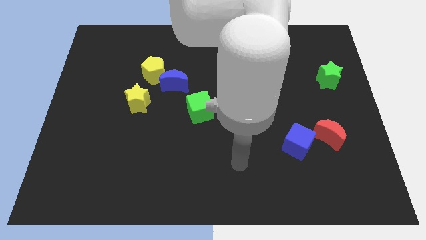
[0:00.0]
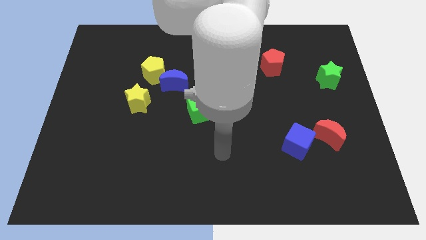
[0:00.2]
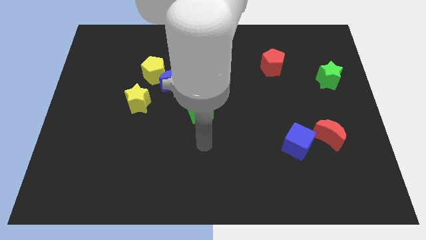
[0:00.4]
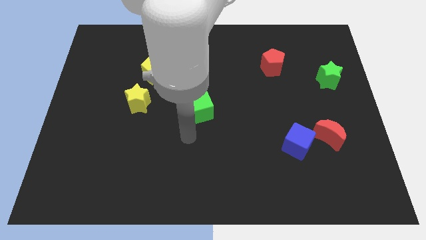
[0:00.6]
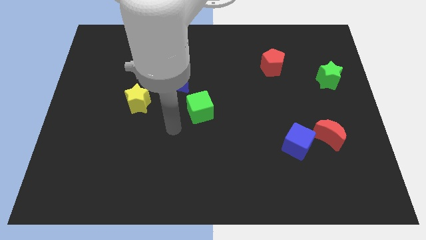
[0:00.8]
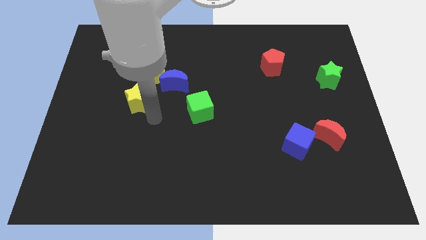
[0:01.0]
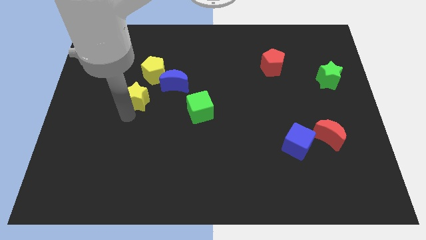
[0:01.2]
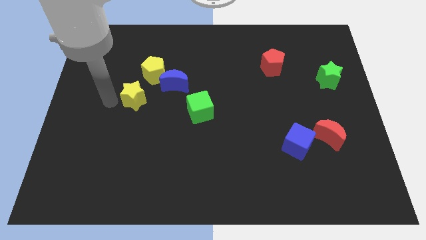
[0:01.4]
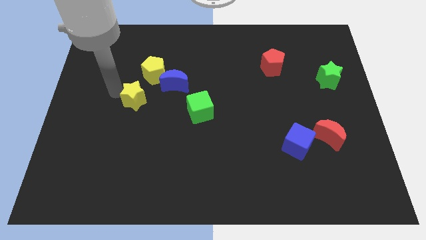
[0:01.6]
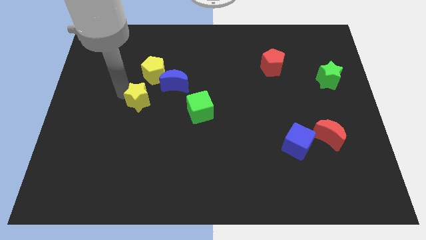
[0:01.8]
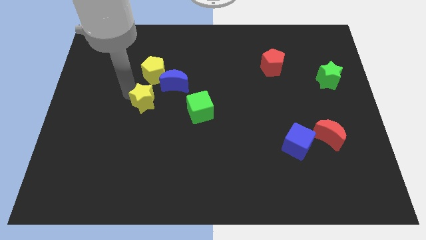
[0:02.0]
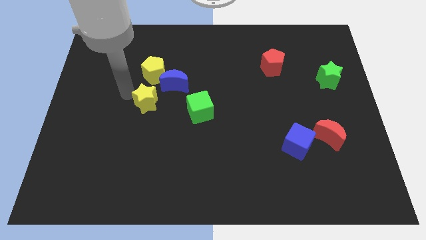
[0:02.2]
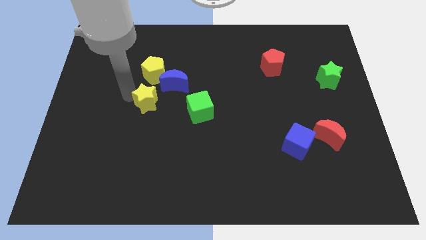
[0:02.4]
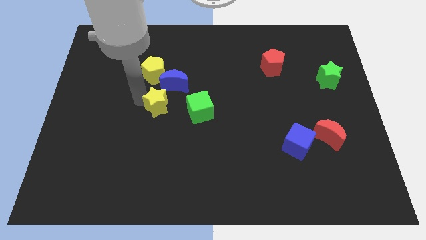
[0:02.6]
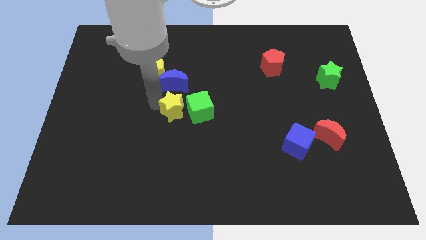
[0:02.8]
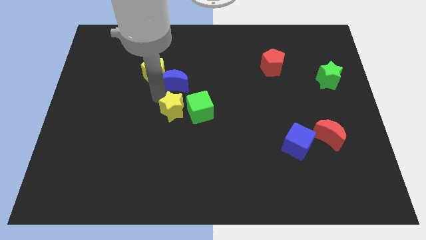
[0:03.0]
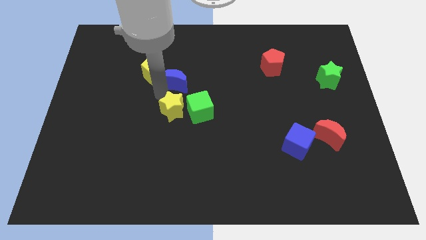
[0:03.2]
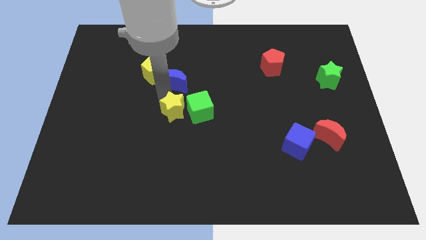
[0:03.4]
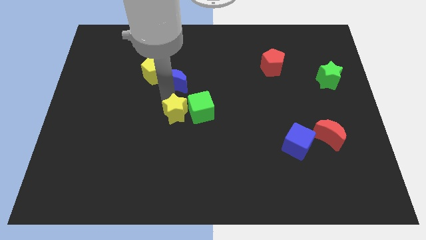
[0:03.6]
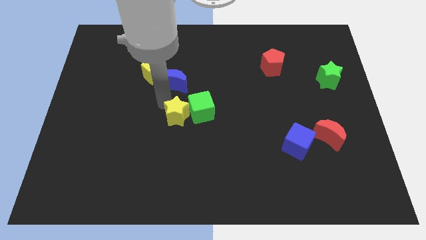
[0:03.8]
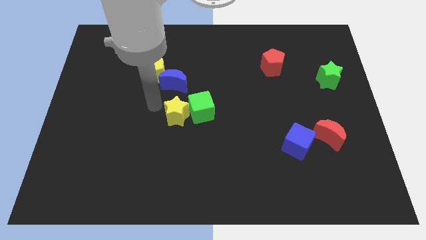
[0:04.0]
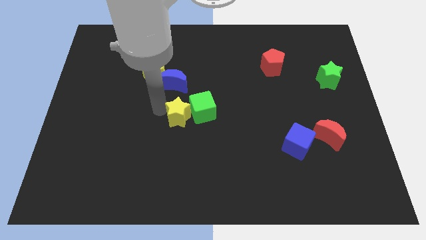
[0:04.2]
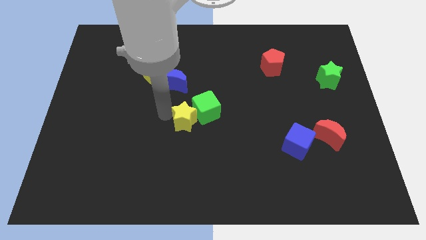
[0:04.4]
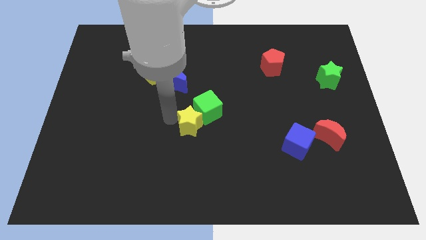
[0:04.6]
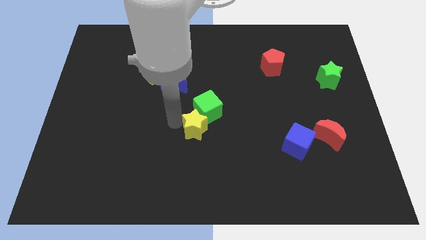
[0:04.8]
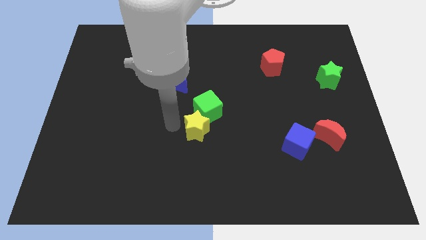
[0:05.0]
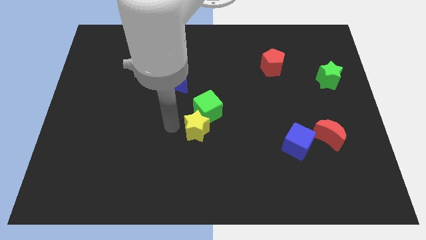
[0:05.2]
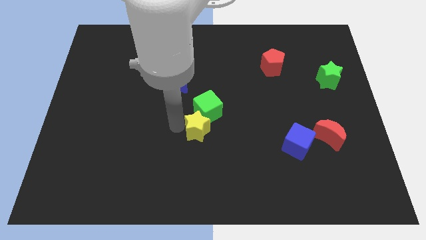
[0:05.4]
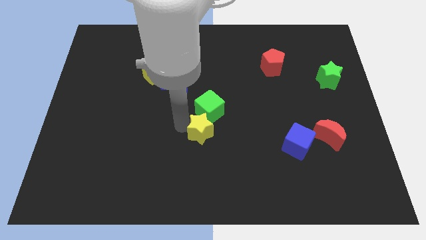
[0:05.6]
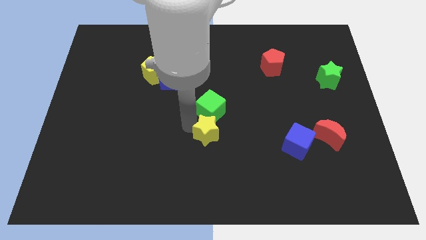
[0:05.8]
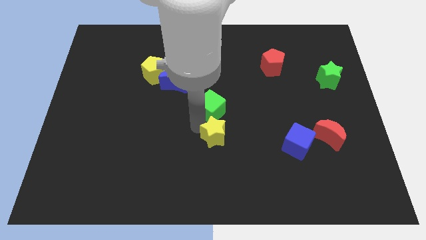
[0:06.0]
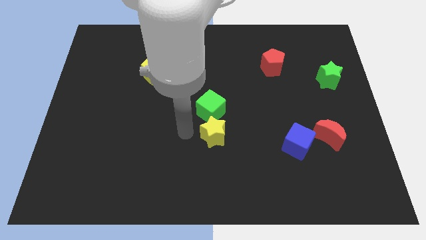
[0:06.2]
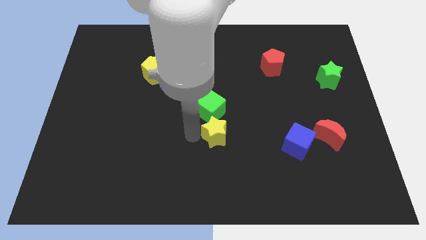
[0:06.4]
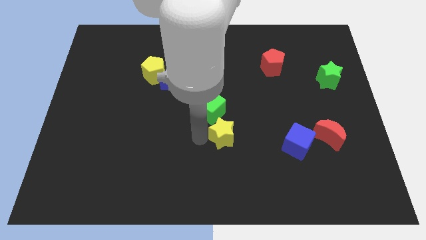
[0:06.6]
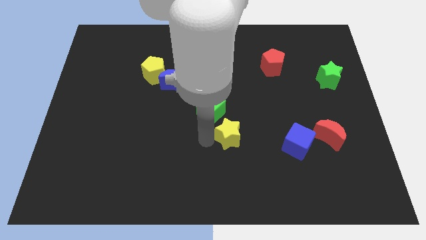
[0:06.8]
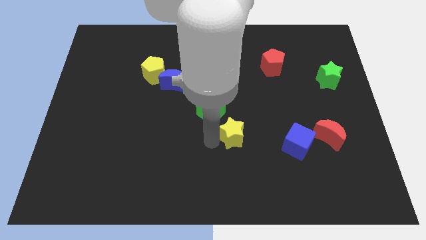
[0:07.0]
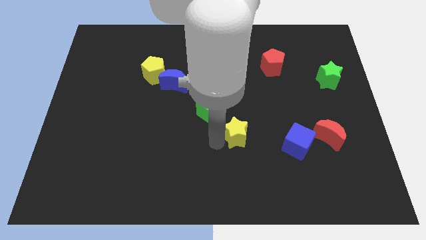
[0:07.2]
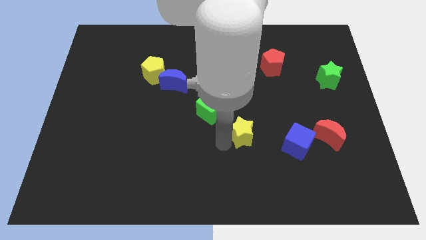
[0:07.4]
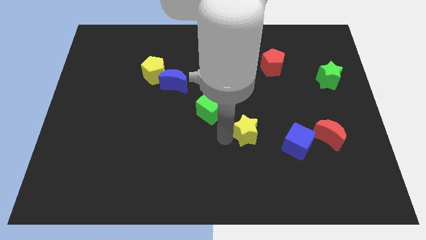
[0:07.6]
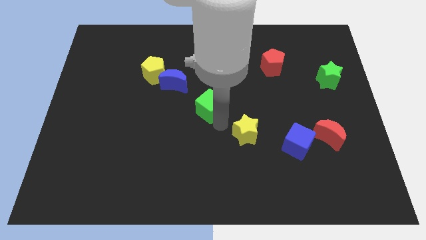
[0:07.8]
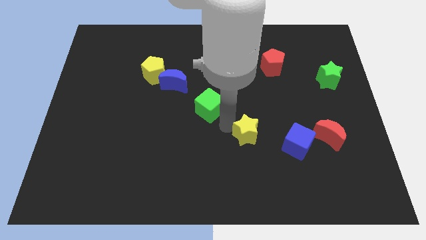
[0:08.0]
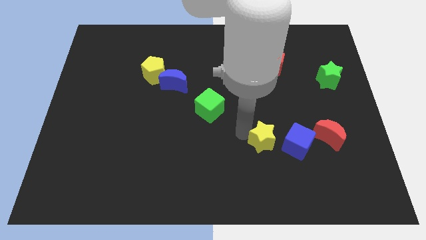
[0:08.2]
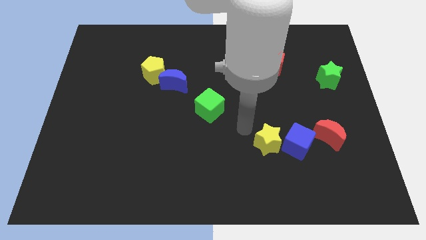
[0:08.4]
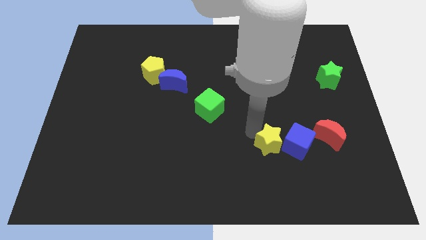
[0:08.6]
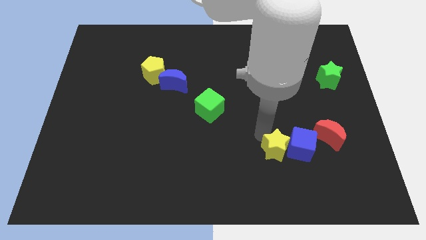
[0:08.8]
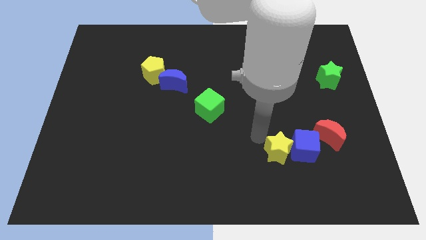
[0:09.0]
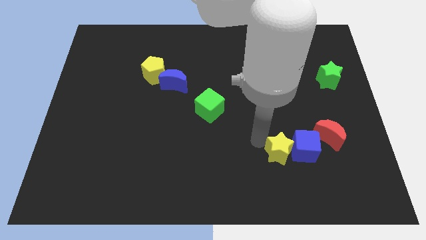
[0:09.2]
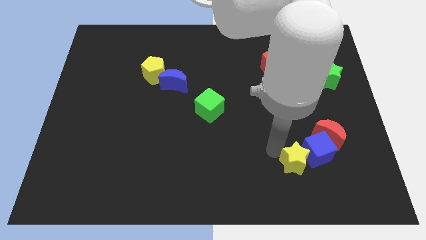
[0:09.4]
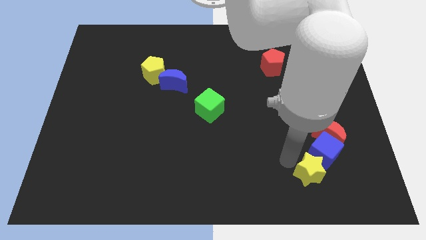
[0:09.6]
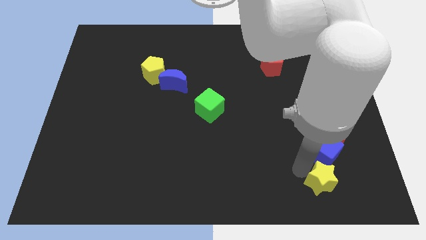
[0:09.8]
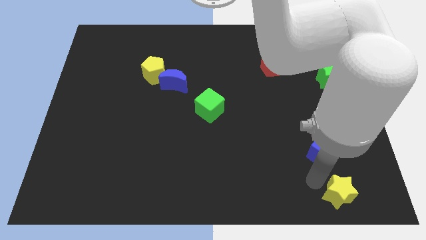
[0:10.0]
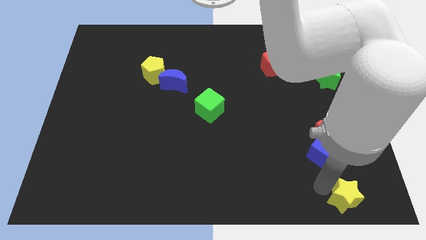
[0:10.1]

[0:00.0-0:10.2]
move the yellow star to the bottom right of the board

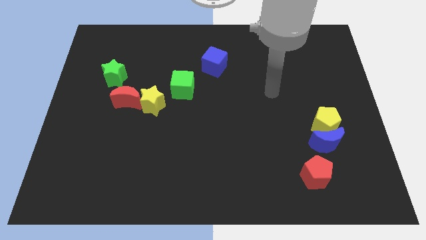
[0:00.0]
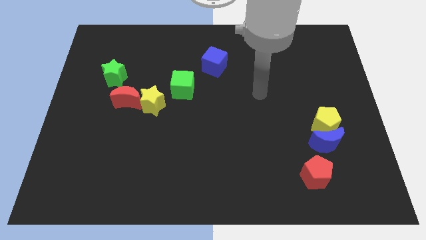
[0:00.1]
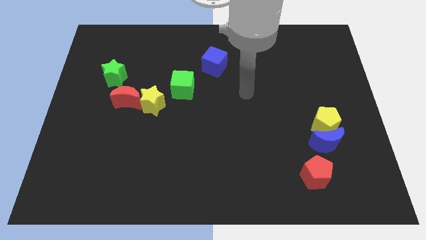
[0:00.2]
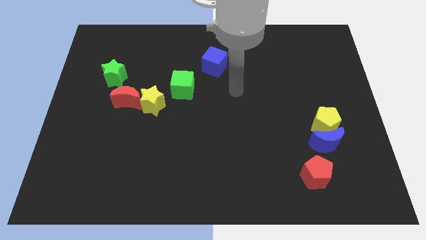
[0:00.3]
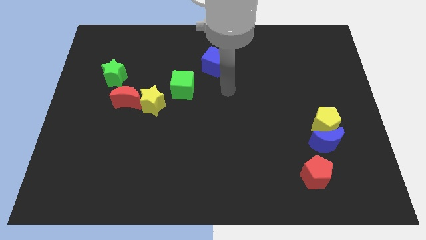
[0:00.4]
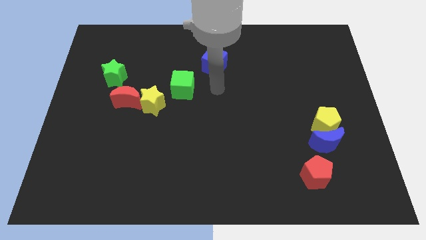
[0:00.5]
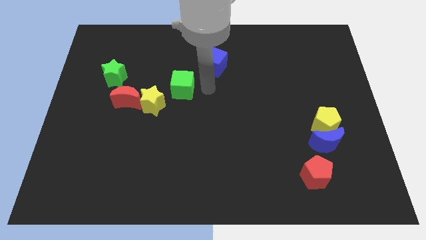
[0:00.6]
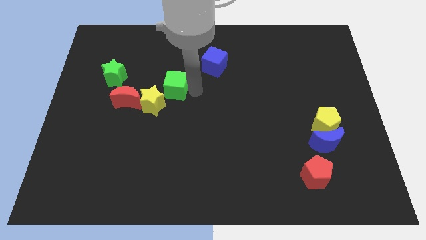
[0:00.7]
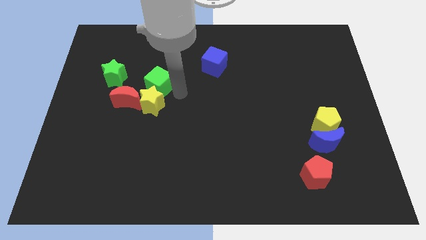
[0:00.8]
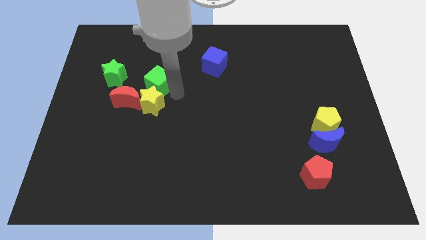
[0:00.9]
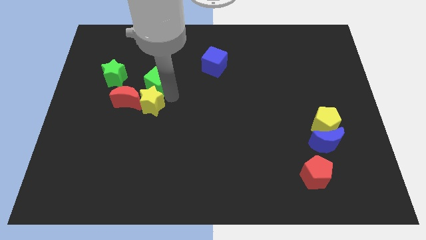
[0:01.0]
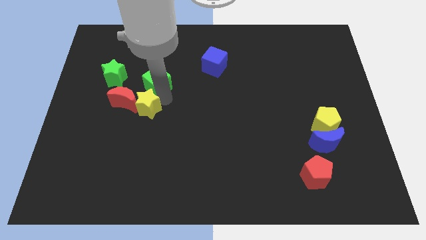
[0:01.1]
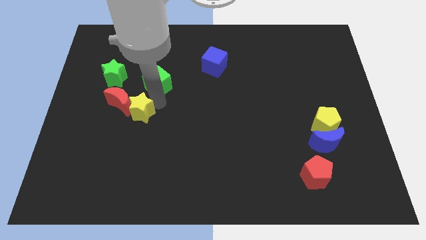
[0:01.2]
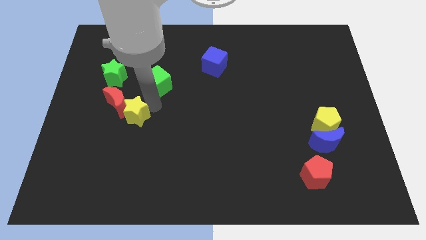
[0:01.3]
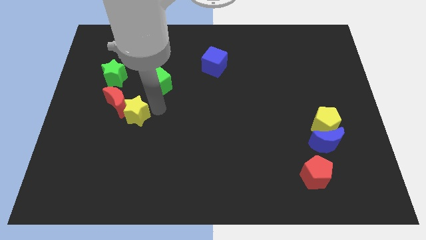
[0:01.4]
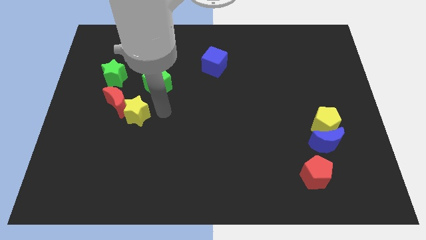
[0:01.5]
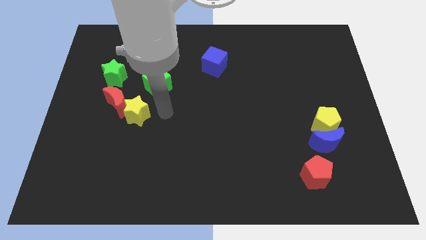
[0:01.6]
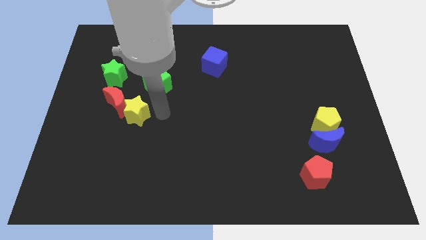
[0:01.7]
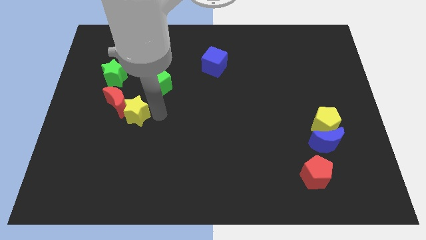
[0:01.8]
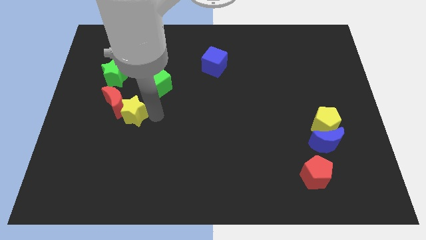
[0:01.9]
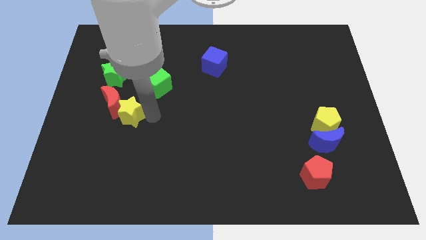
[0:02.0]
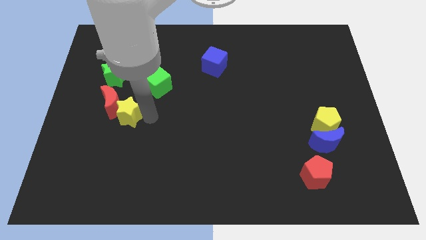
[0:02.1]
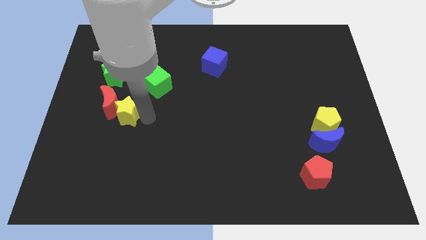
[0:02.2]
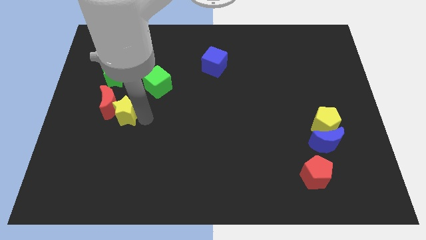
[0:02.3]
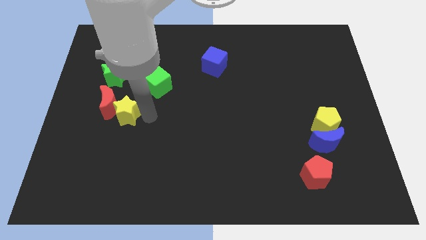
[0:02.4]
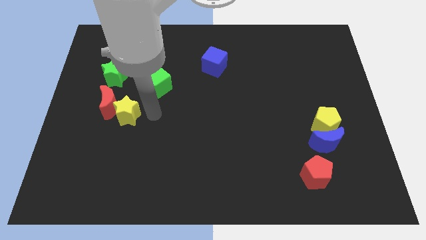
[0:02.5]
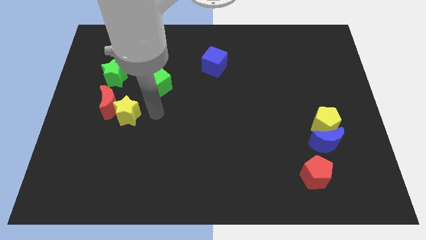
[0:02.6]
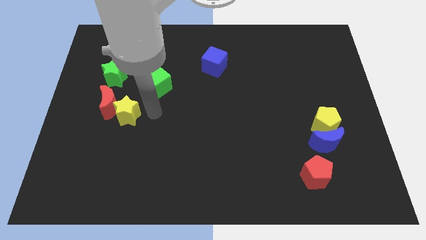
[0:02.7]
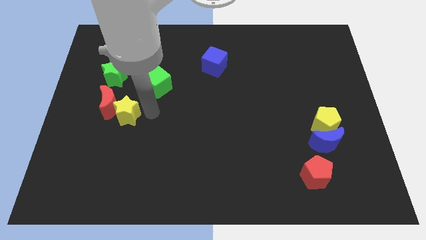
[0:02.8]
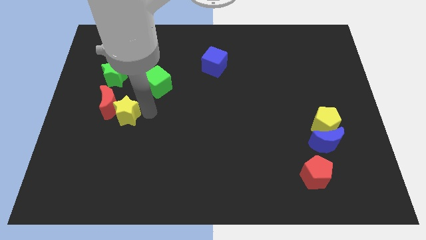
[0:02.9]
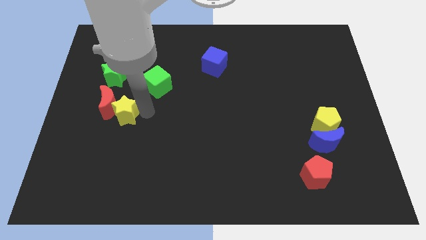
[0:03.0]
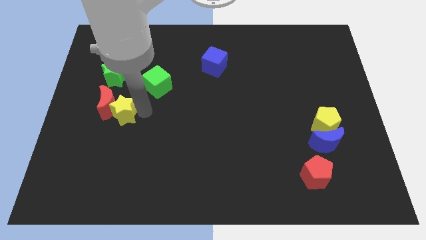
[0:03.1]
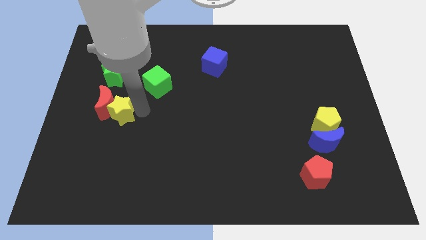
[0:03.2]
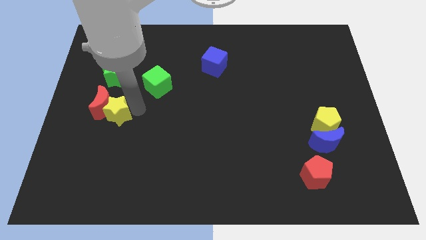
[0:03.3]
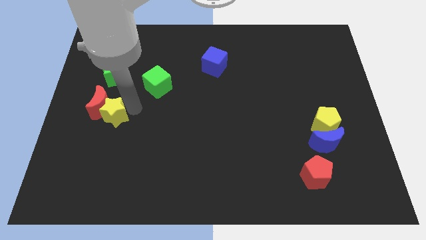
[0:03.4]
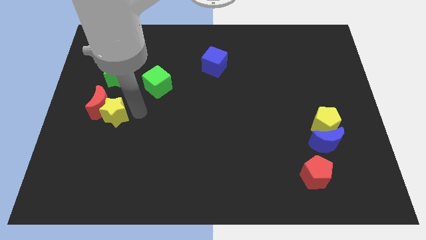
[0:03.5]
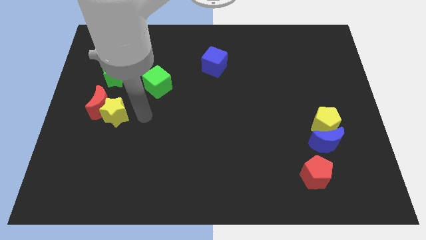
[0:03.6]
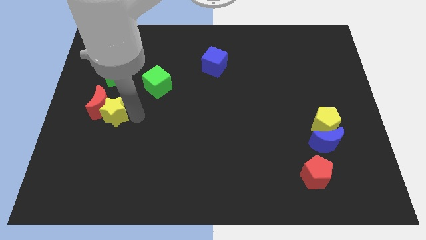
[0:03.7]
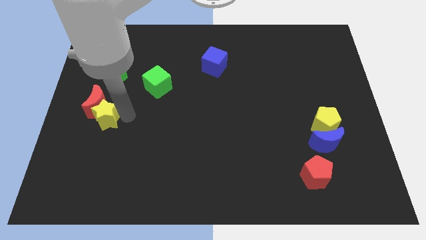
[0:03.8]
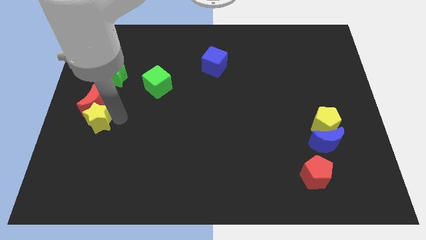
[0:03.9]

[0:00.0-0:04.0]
push the yellow star to the left side
